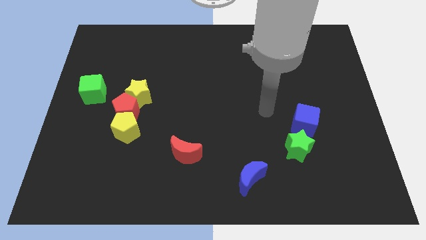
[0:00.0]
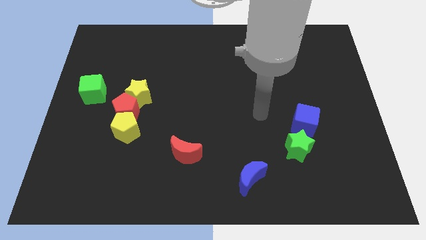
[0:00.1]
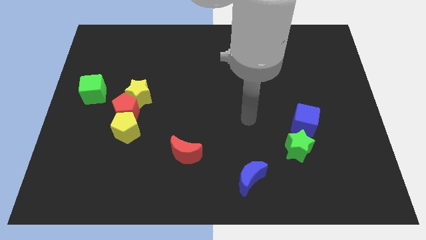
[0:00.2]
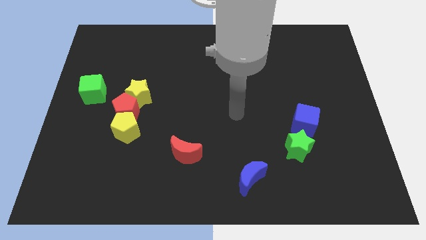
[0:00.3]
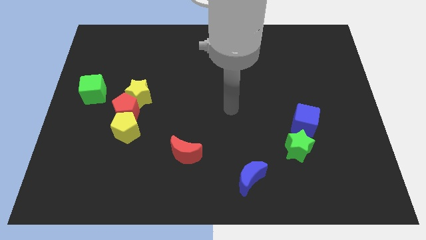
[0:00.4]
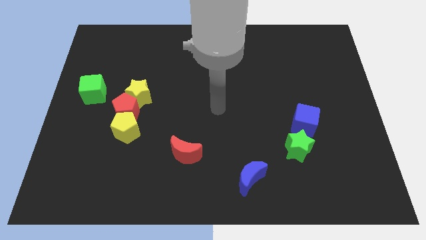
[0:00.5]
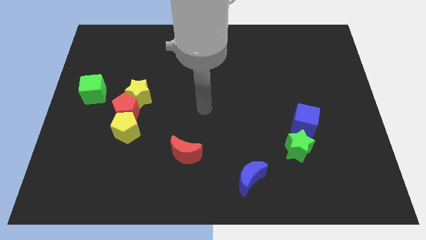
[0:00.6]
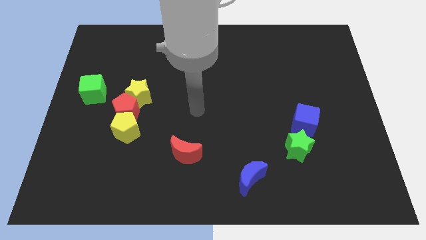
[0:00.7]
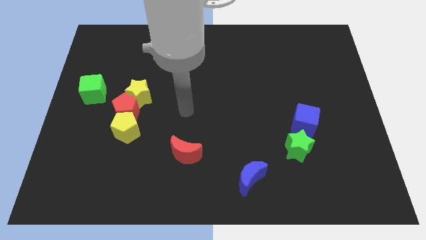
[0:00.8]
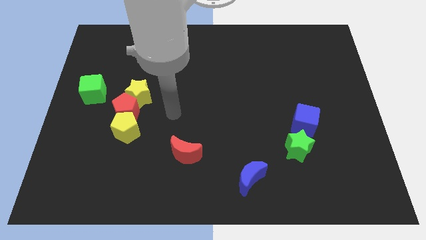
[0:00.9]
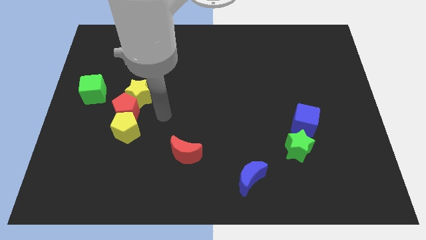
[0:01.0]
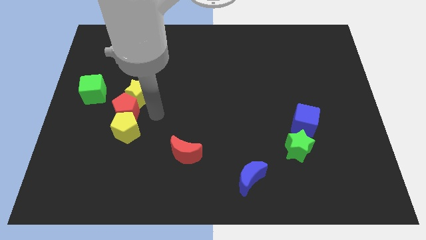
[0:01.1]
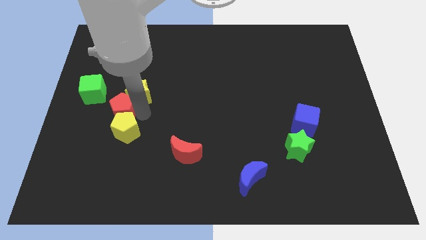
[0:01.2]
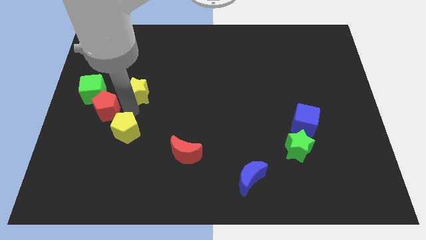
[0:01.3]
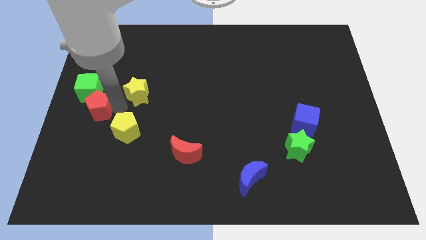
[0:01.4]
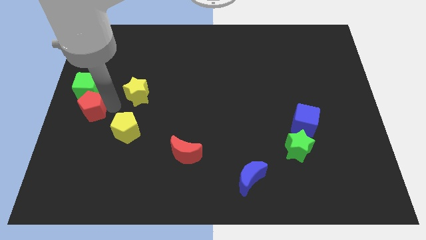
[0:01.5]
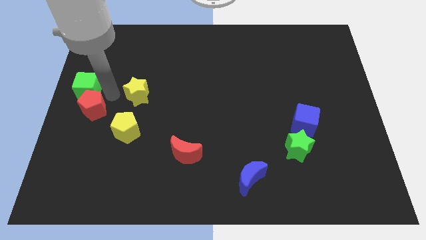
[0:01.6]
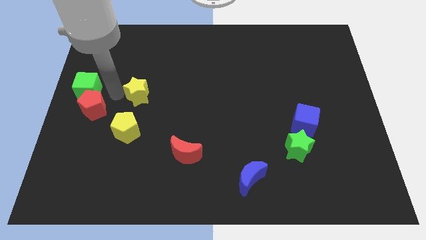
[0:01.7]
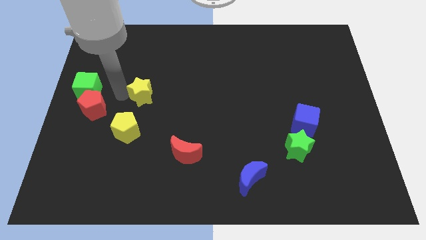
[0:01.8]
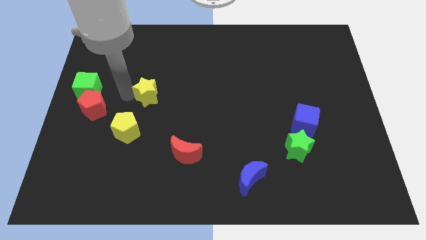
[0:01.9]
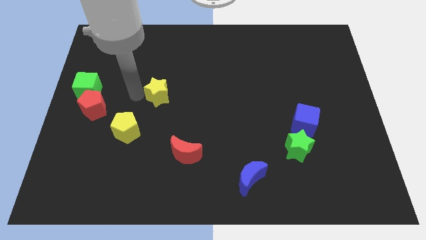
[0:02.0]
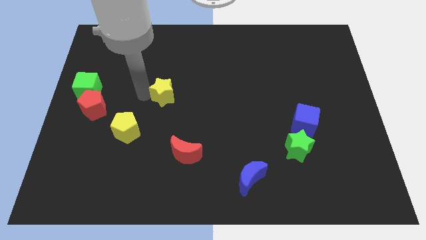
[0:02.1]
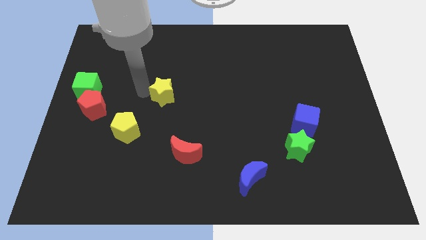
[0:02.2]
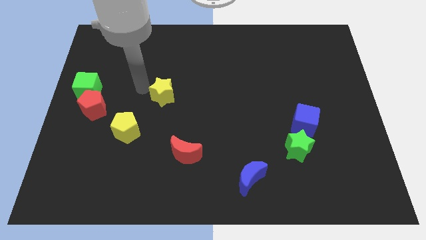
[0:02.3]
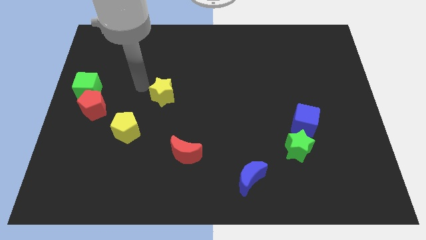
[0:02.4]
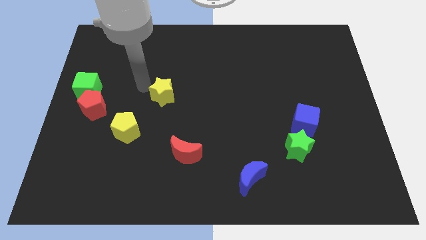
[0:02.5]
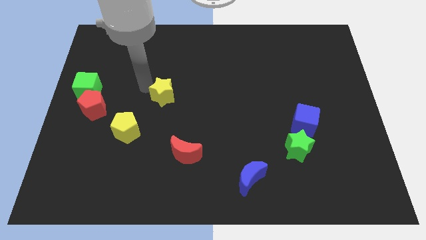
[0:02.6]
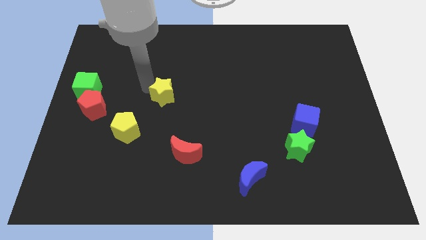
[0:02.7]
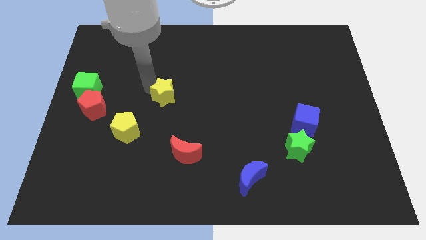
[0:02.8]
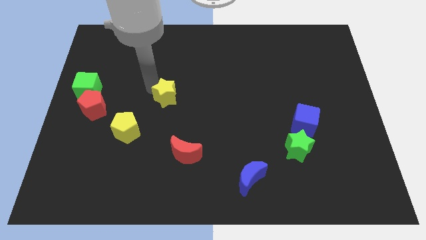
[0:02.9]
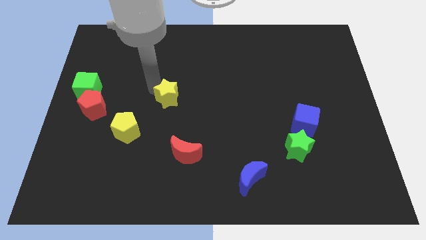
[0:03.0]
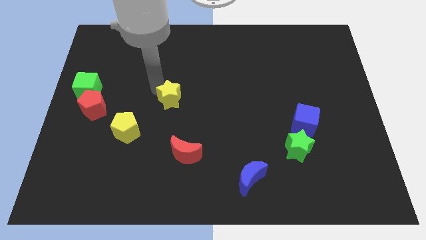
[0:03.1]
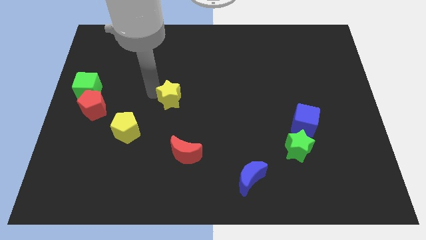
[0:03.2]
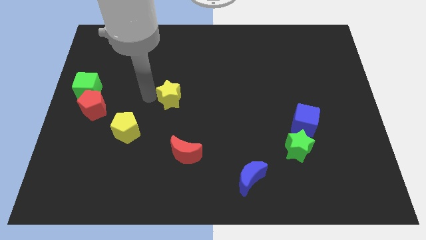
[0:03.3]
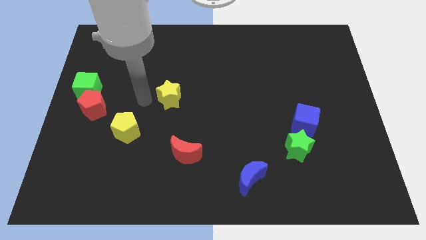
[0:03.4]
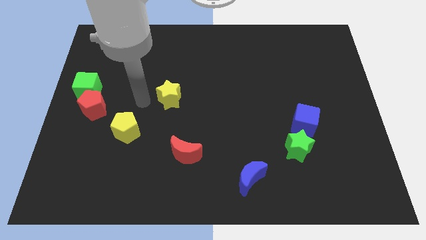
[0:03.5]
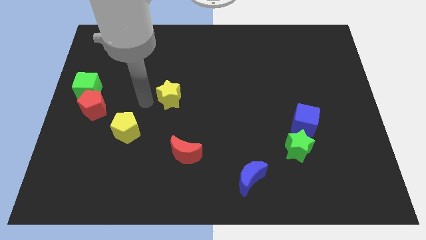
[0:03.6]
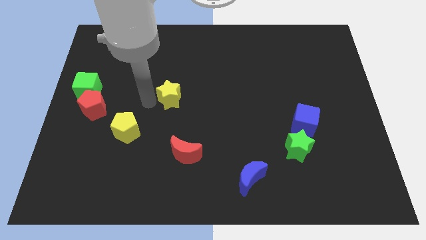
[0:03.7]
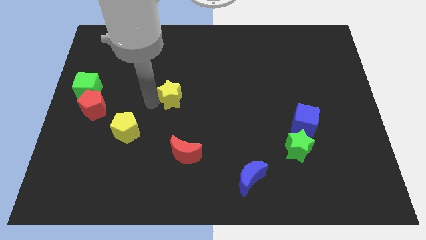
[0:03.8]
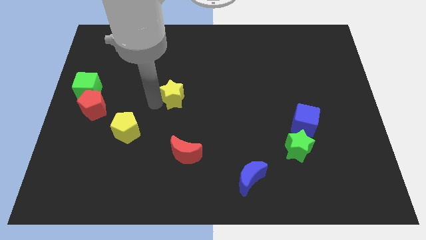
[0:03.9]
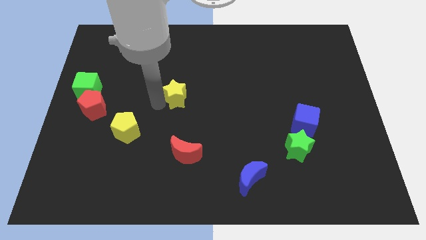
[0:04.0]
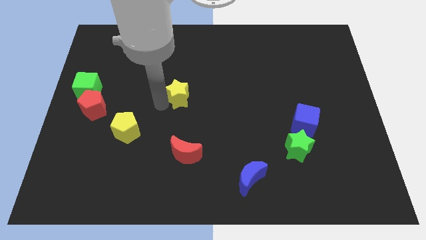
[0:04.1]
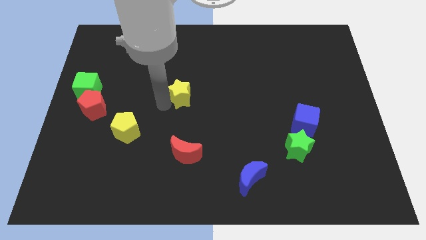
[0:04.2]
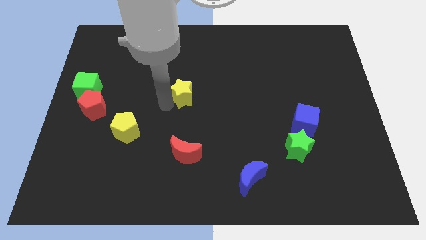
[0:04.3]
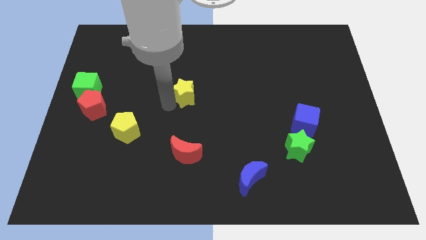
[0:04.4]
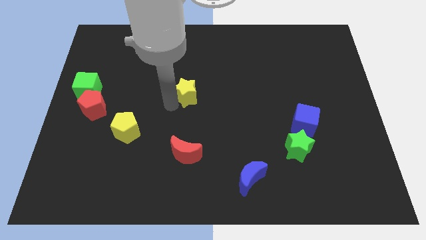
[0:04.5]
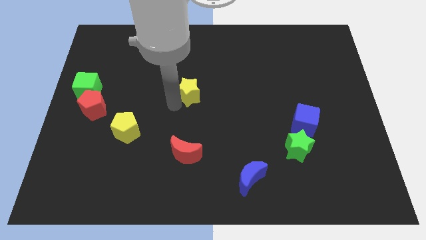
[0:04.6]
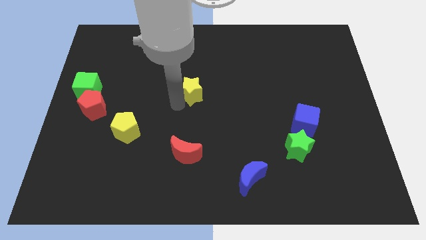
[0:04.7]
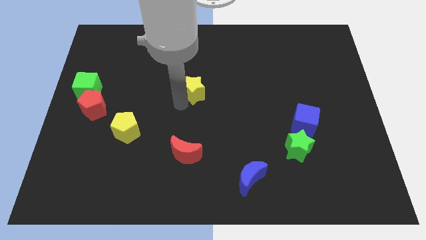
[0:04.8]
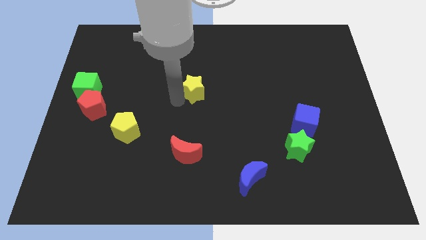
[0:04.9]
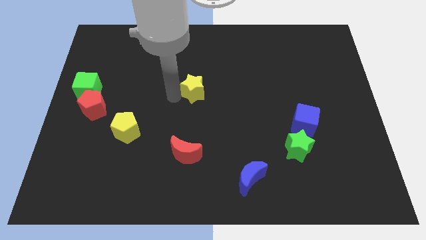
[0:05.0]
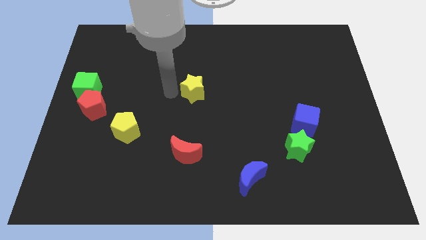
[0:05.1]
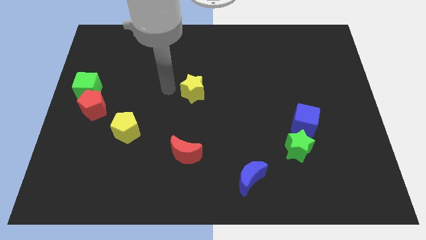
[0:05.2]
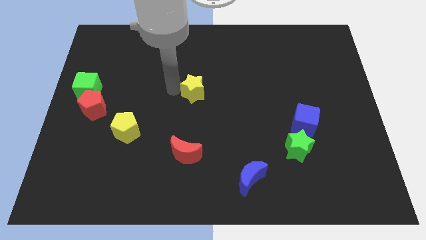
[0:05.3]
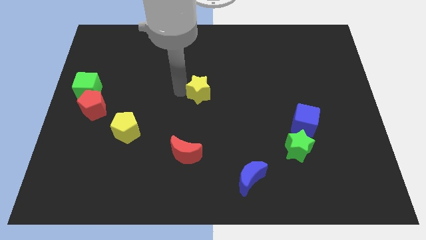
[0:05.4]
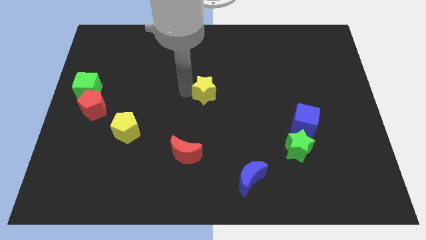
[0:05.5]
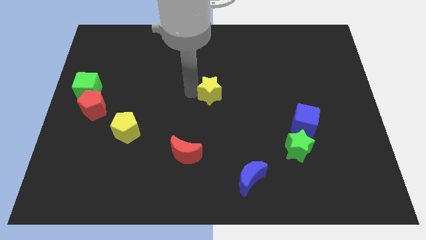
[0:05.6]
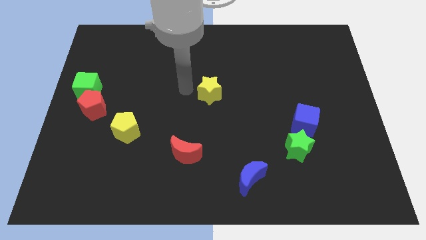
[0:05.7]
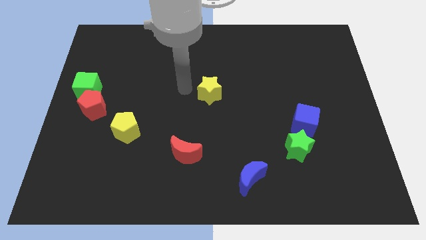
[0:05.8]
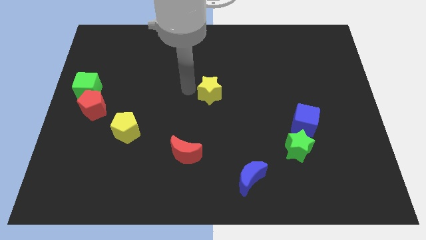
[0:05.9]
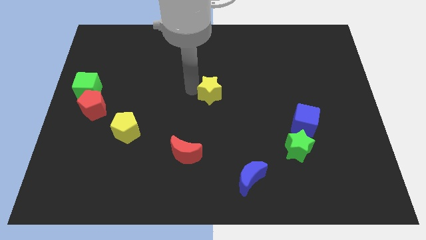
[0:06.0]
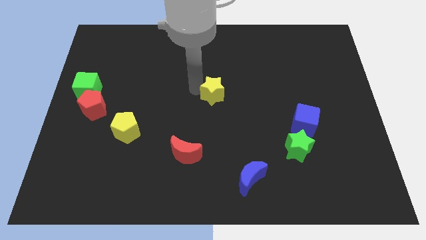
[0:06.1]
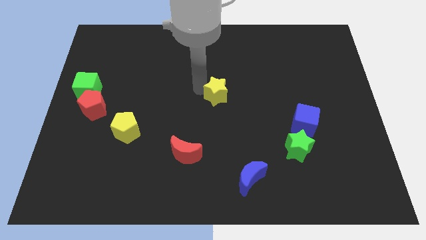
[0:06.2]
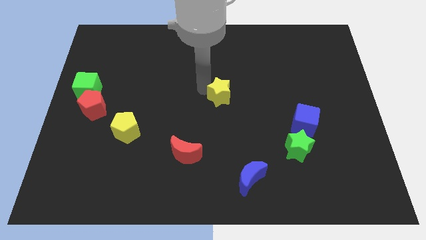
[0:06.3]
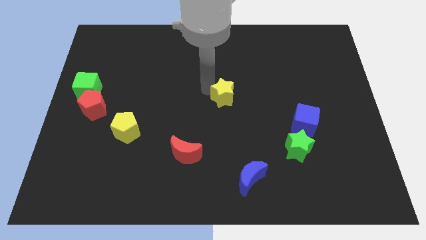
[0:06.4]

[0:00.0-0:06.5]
push the yellow star right

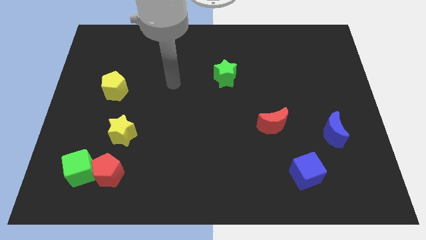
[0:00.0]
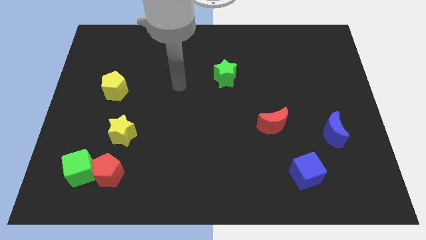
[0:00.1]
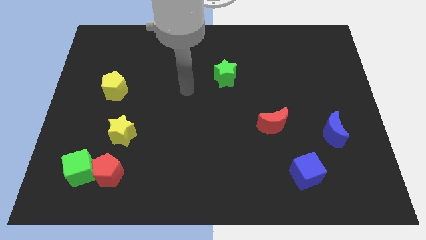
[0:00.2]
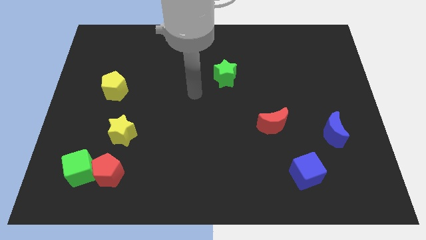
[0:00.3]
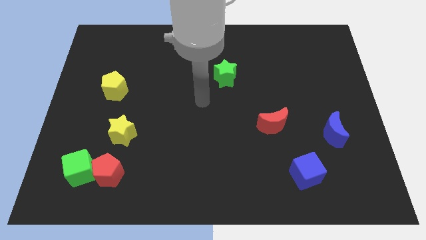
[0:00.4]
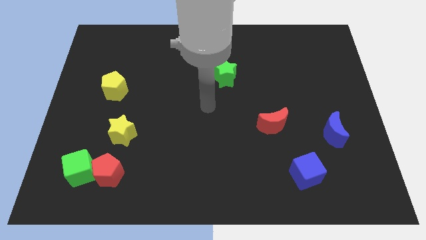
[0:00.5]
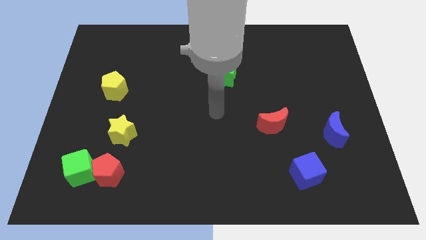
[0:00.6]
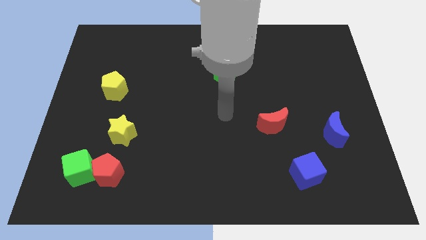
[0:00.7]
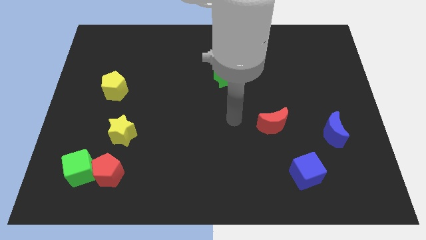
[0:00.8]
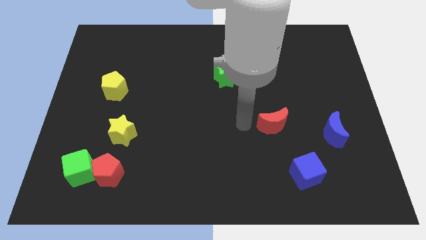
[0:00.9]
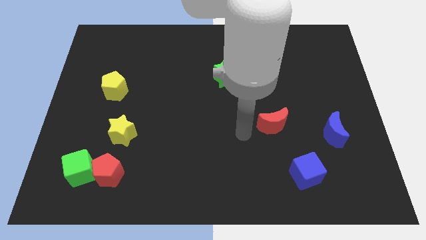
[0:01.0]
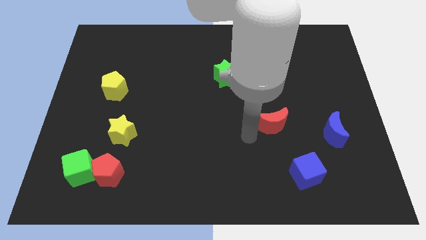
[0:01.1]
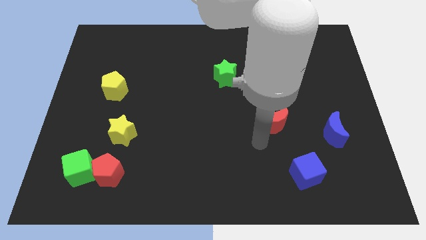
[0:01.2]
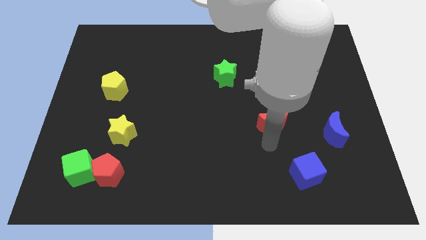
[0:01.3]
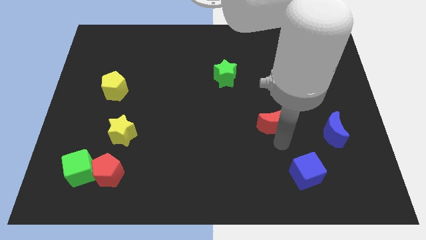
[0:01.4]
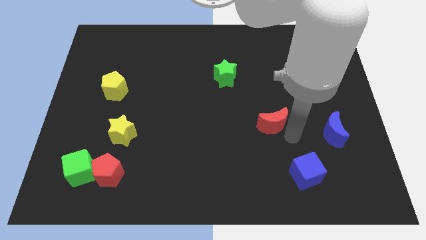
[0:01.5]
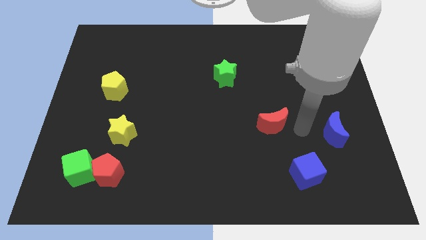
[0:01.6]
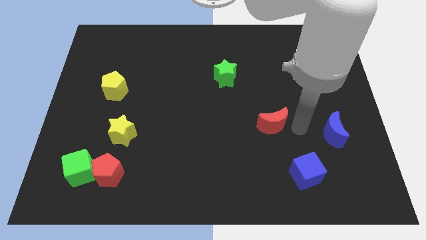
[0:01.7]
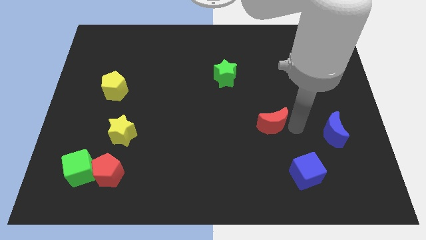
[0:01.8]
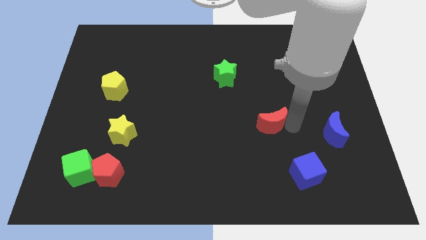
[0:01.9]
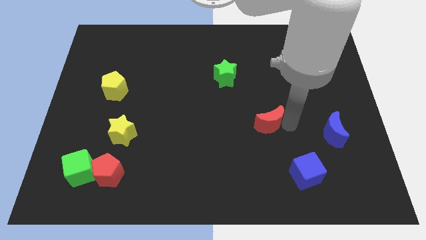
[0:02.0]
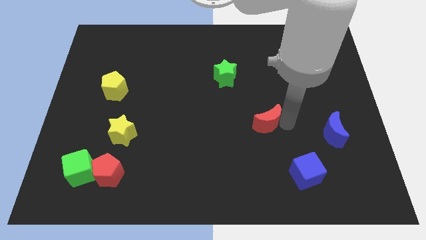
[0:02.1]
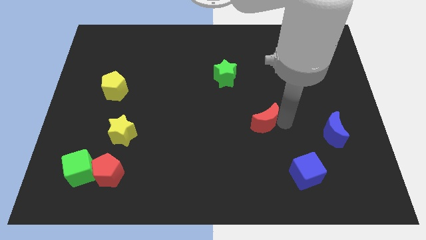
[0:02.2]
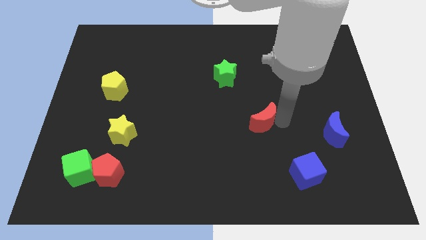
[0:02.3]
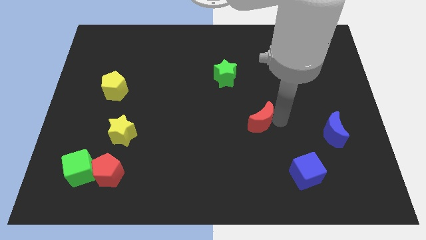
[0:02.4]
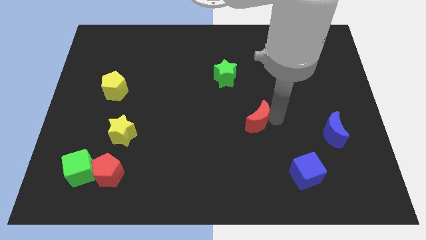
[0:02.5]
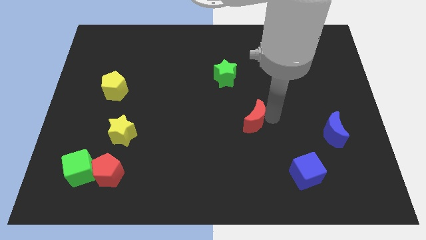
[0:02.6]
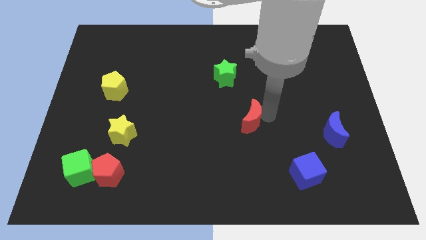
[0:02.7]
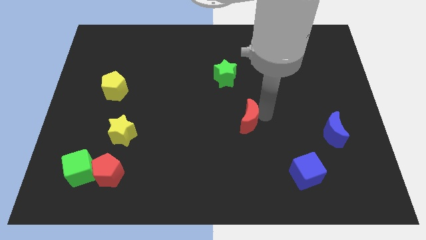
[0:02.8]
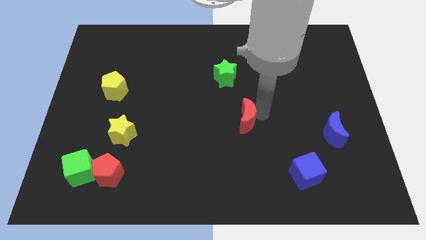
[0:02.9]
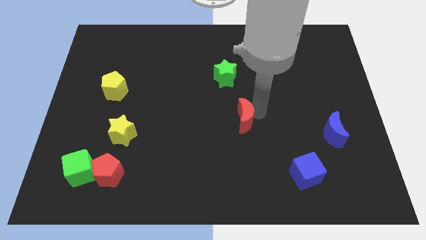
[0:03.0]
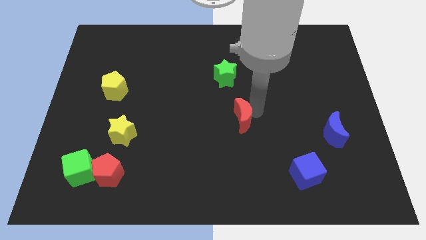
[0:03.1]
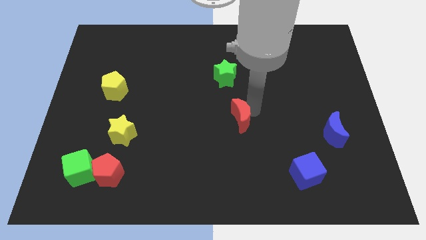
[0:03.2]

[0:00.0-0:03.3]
slightly push the red moon to the left
